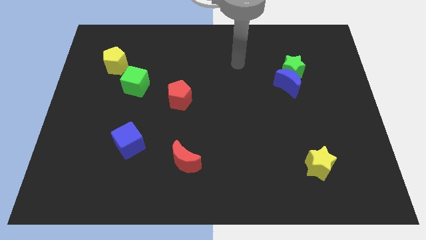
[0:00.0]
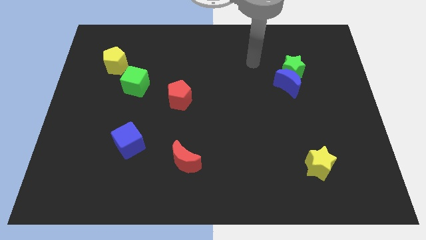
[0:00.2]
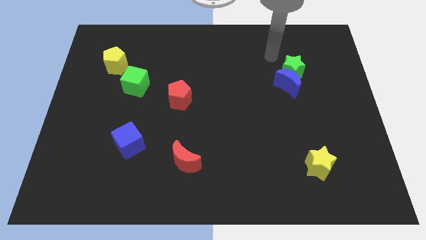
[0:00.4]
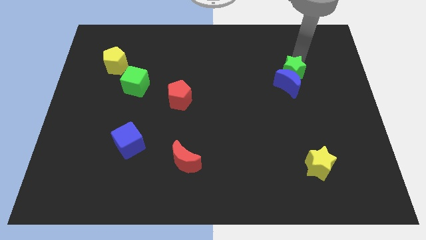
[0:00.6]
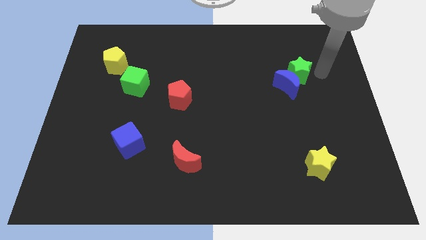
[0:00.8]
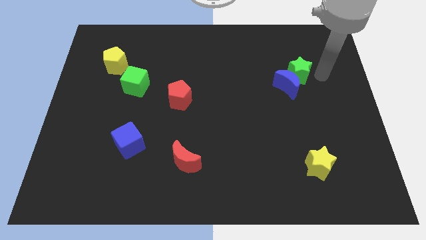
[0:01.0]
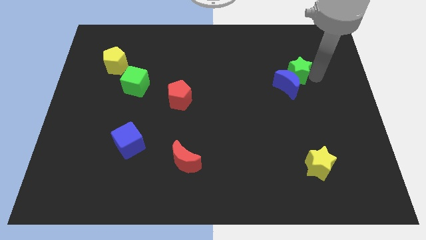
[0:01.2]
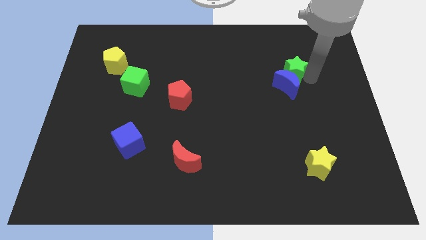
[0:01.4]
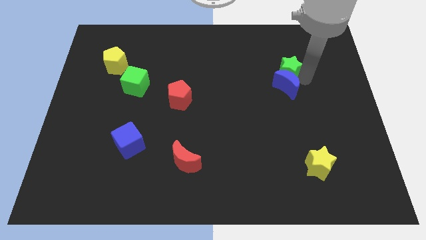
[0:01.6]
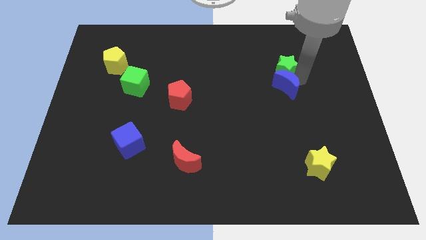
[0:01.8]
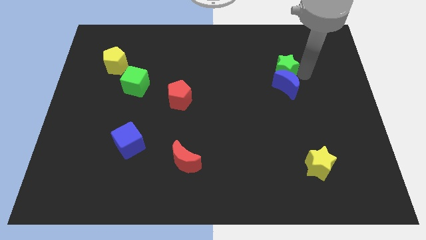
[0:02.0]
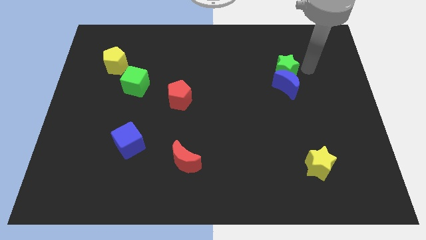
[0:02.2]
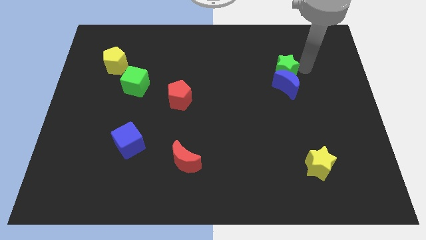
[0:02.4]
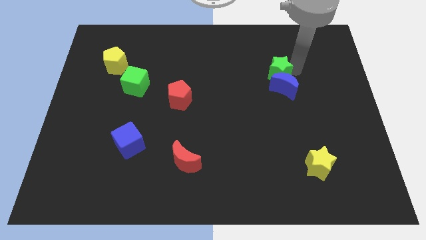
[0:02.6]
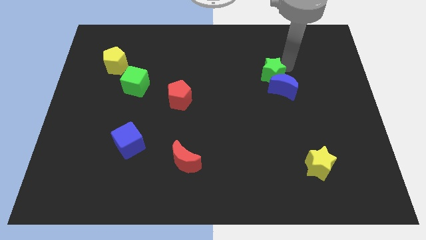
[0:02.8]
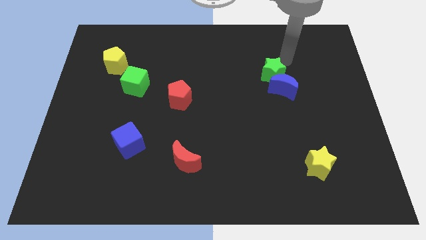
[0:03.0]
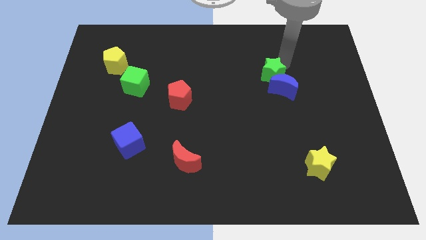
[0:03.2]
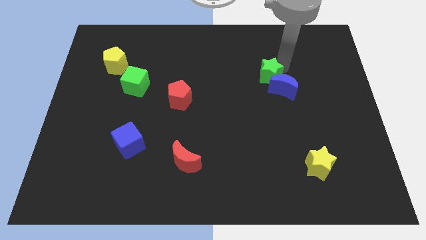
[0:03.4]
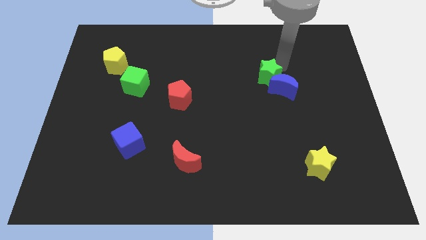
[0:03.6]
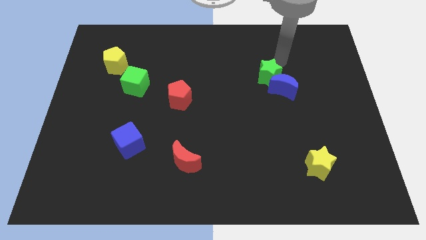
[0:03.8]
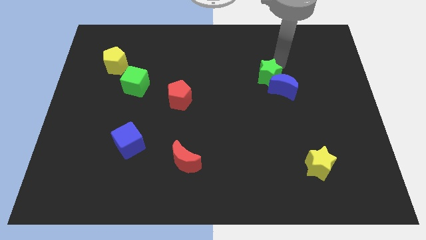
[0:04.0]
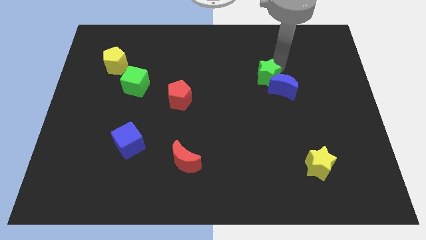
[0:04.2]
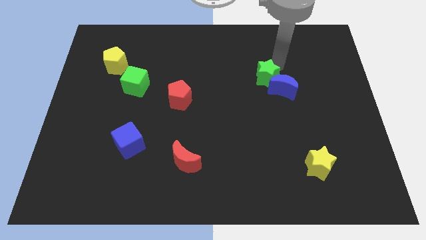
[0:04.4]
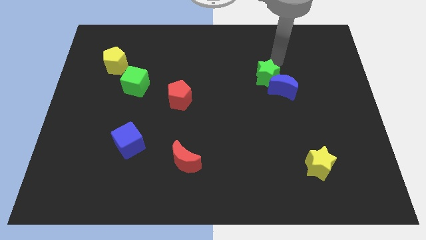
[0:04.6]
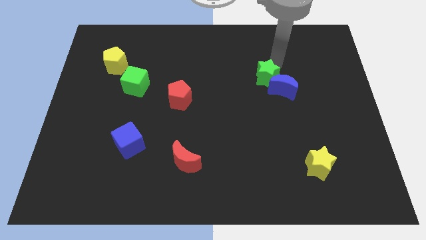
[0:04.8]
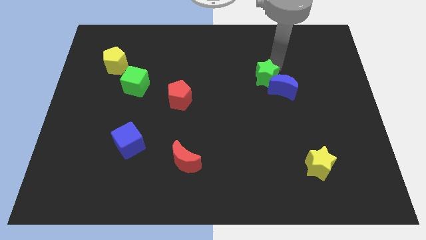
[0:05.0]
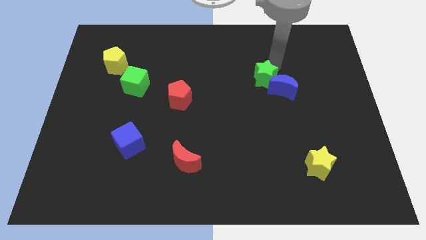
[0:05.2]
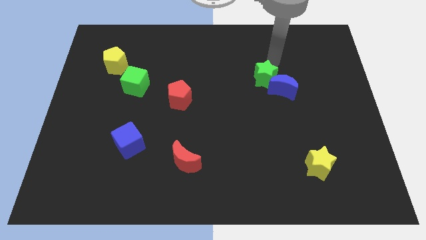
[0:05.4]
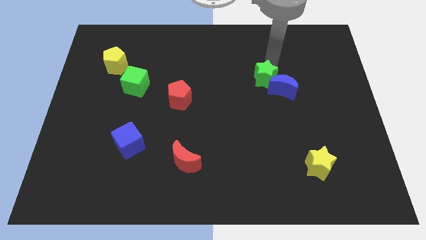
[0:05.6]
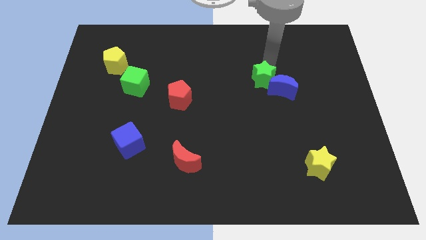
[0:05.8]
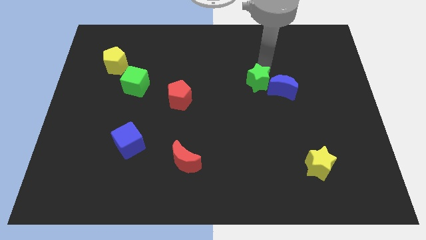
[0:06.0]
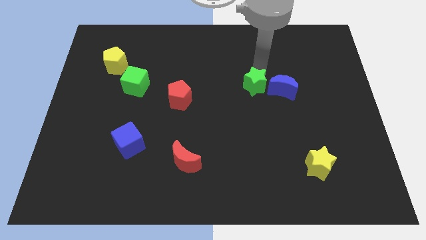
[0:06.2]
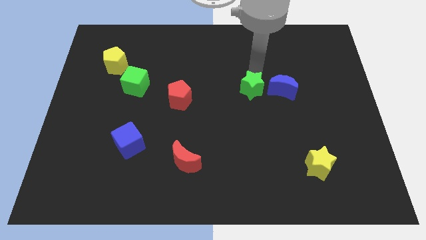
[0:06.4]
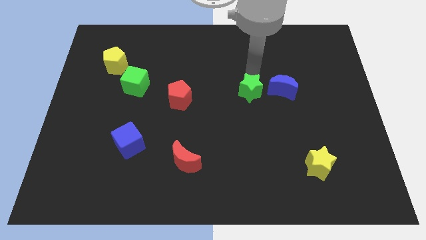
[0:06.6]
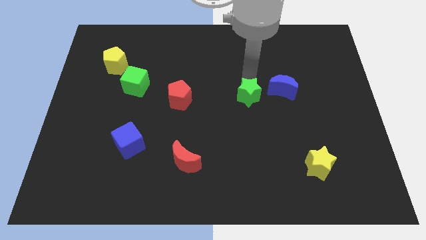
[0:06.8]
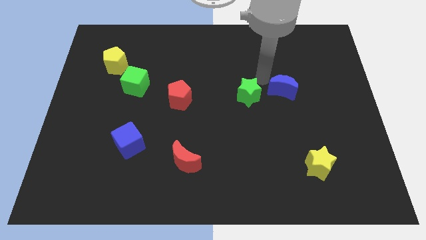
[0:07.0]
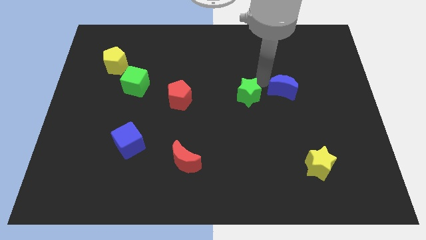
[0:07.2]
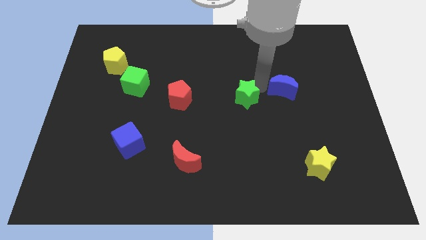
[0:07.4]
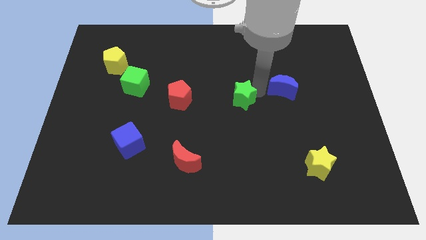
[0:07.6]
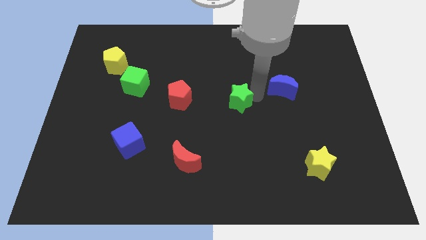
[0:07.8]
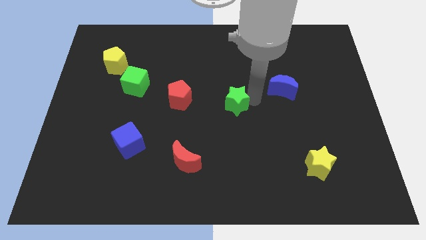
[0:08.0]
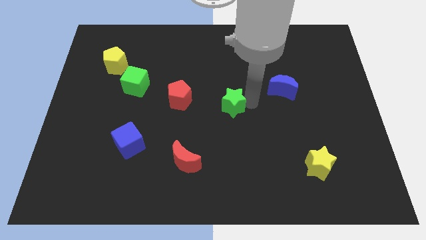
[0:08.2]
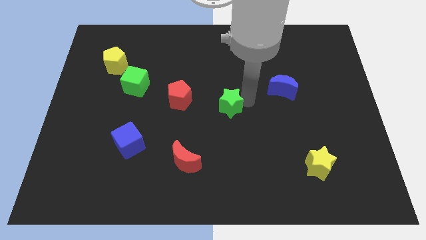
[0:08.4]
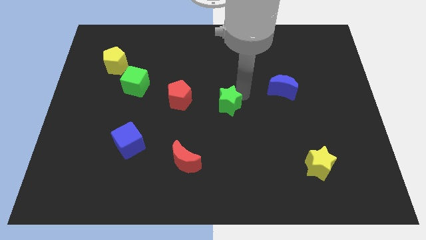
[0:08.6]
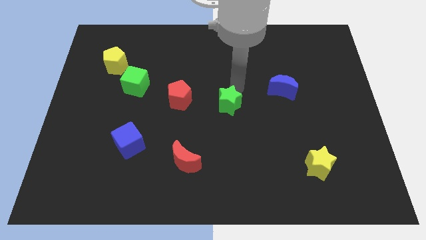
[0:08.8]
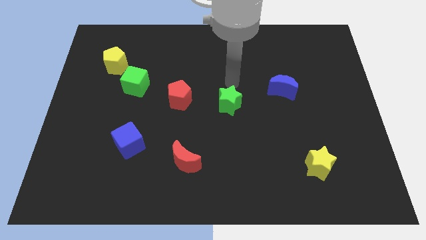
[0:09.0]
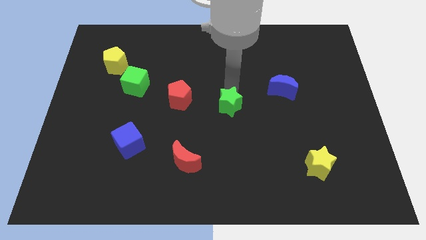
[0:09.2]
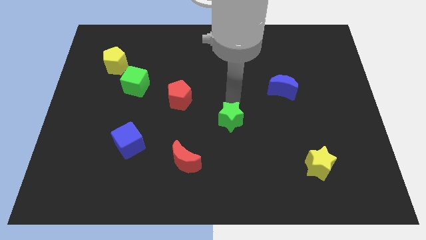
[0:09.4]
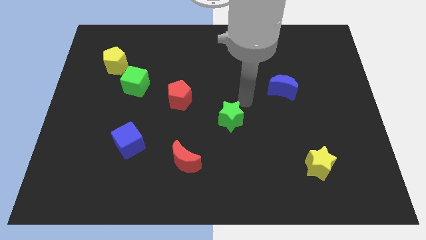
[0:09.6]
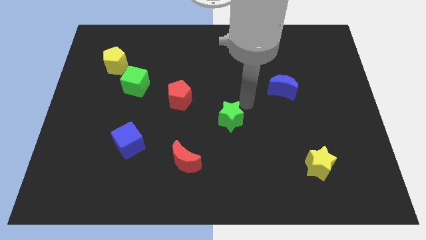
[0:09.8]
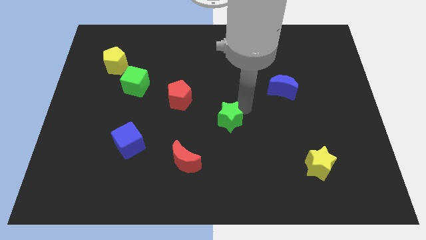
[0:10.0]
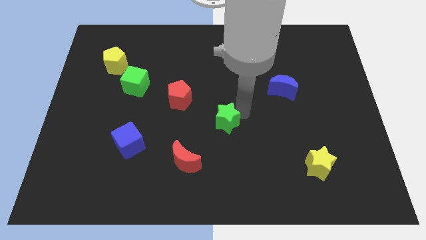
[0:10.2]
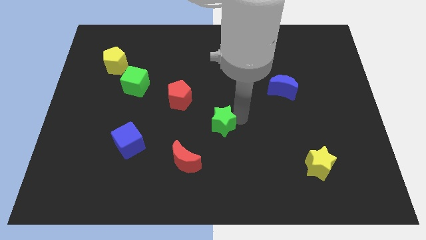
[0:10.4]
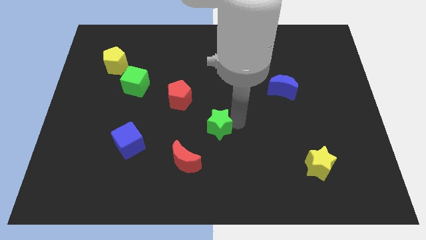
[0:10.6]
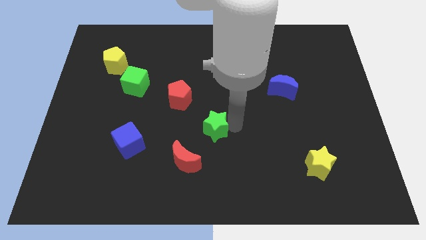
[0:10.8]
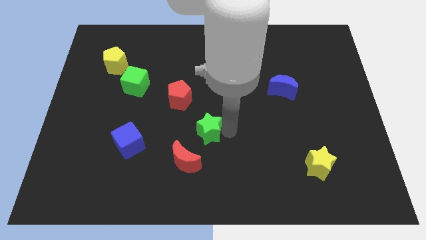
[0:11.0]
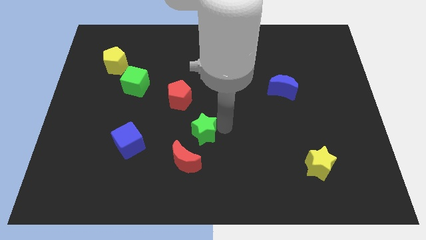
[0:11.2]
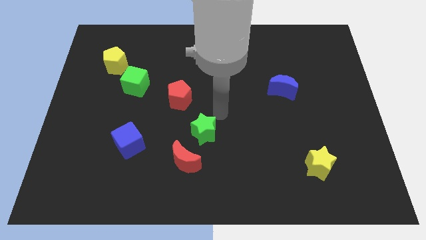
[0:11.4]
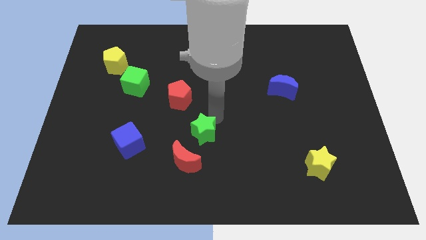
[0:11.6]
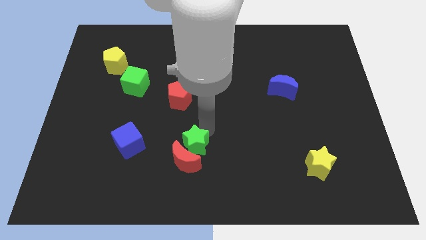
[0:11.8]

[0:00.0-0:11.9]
push the green star towards the red moon

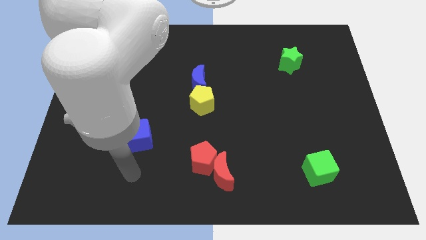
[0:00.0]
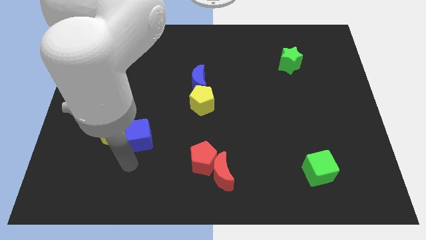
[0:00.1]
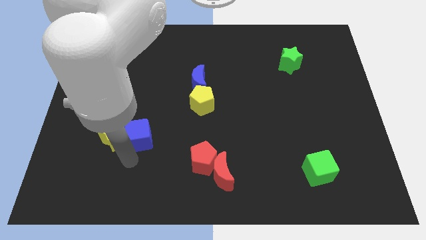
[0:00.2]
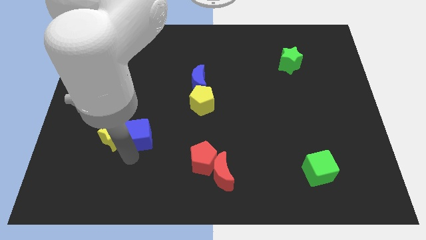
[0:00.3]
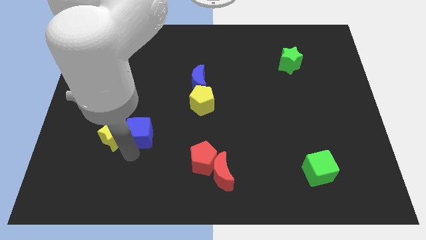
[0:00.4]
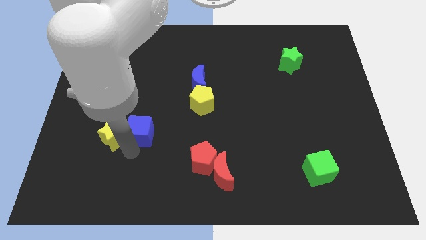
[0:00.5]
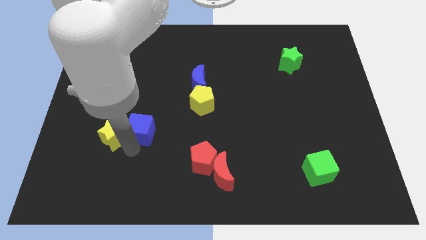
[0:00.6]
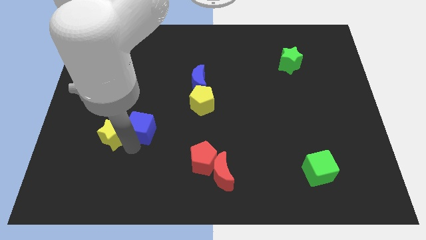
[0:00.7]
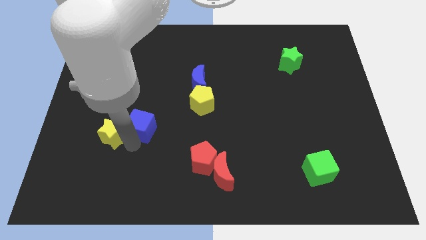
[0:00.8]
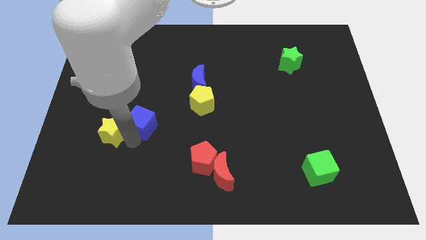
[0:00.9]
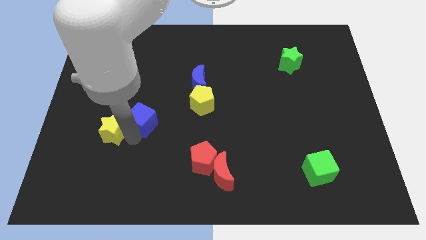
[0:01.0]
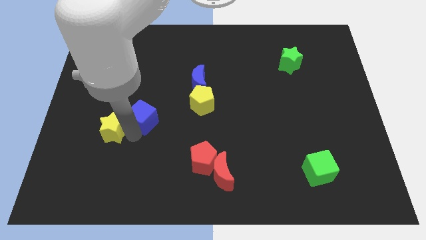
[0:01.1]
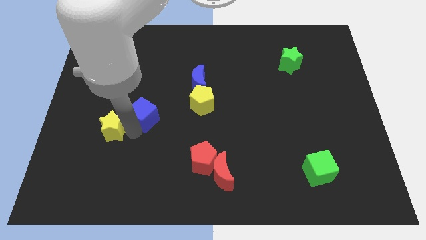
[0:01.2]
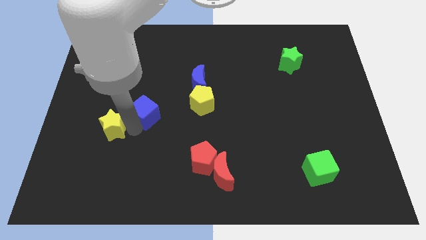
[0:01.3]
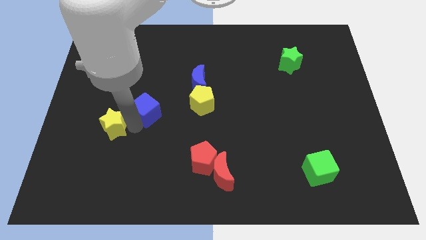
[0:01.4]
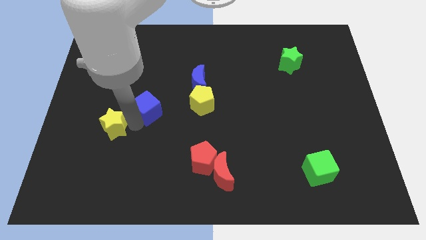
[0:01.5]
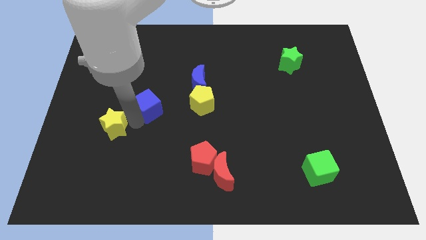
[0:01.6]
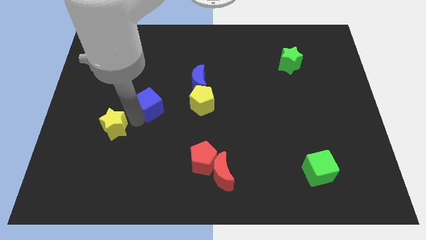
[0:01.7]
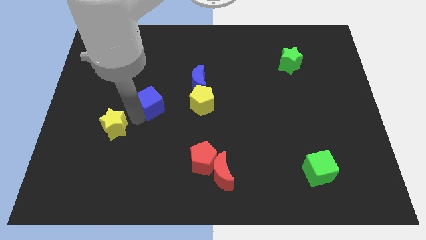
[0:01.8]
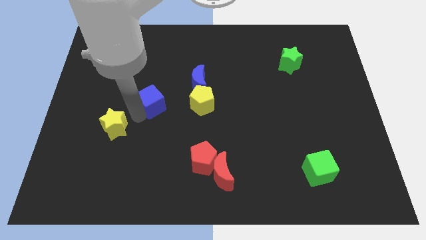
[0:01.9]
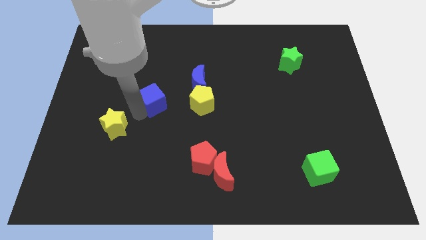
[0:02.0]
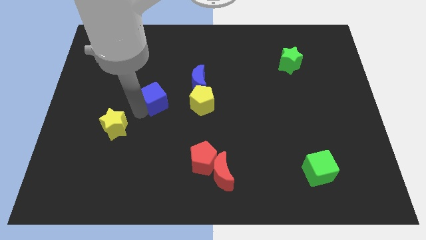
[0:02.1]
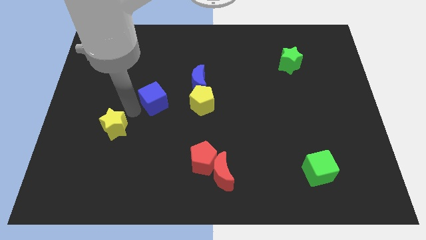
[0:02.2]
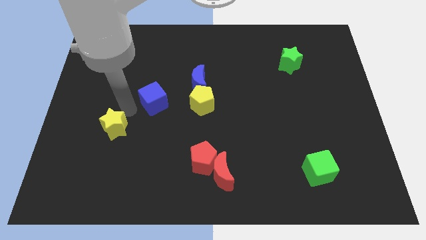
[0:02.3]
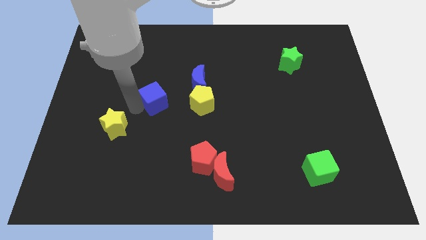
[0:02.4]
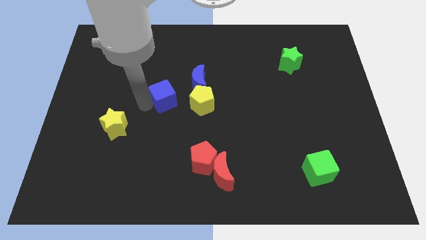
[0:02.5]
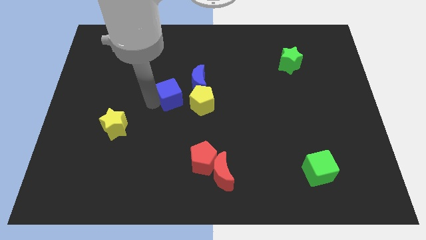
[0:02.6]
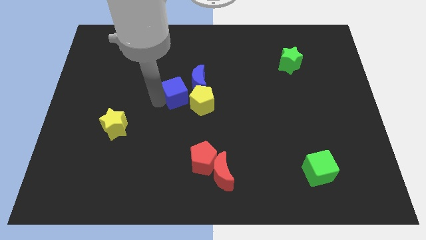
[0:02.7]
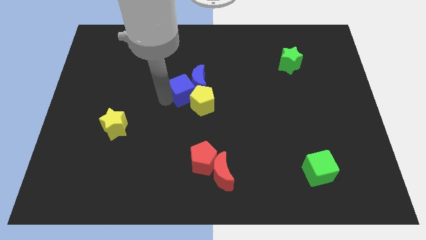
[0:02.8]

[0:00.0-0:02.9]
move the blue cube next to the blue moon
